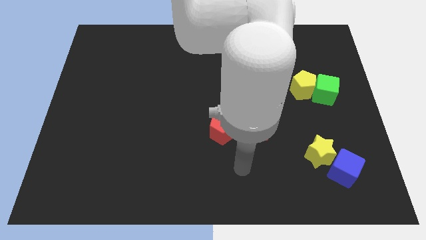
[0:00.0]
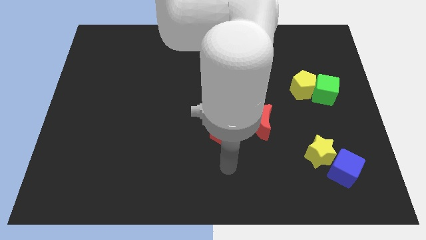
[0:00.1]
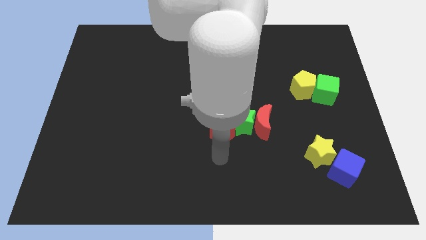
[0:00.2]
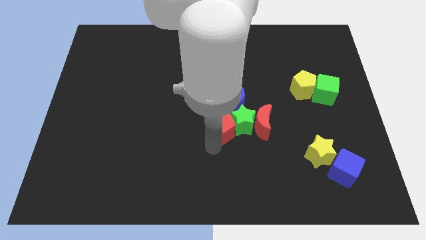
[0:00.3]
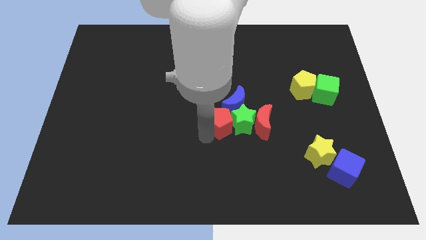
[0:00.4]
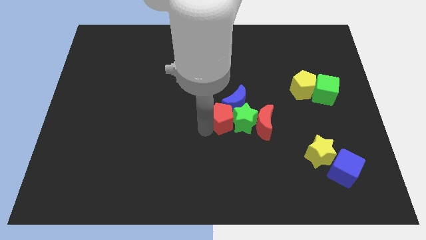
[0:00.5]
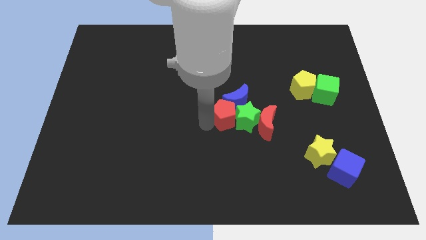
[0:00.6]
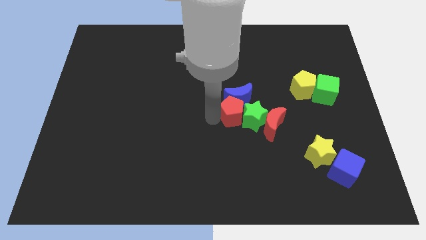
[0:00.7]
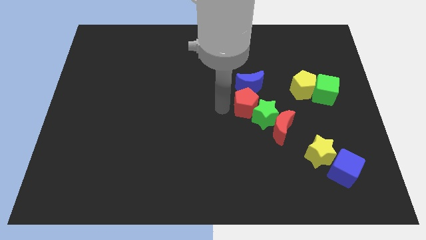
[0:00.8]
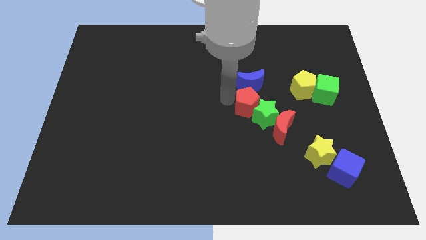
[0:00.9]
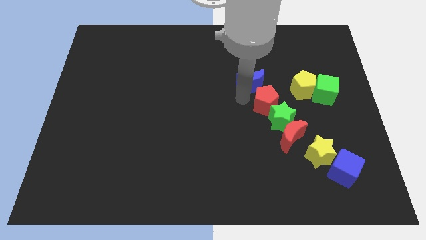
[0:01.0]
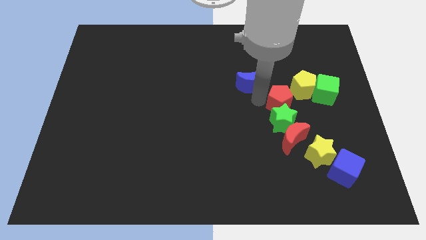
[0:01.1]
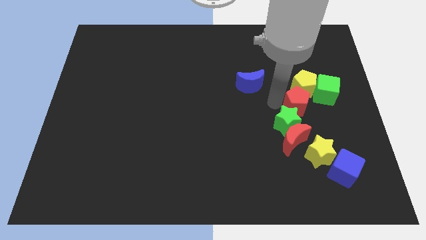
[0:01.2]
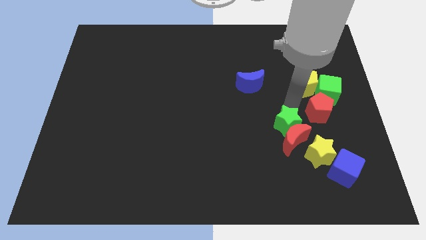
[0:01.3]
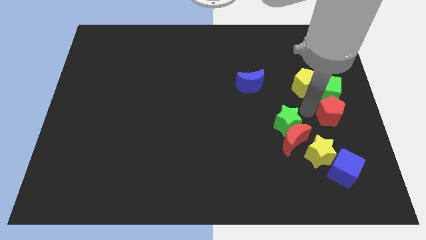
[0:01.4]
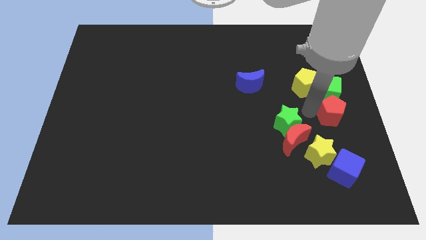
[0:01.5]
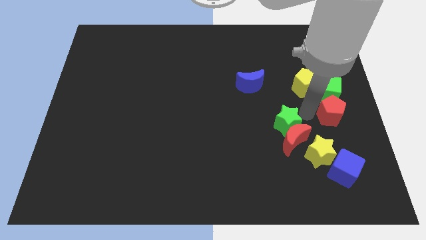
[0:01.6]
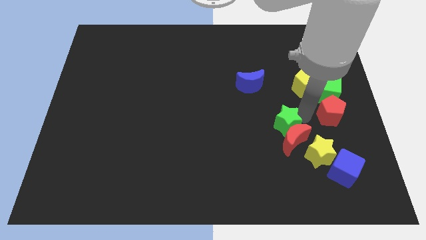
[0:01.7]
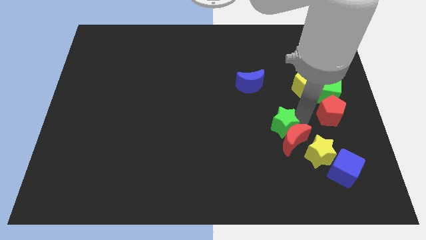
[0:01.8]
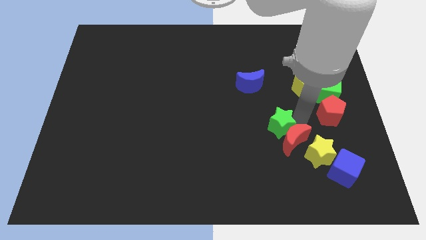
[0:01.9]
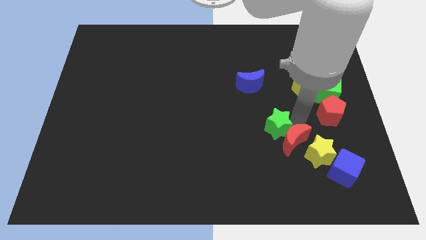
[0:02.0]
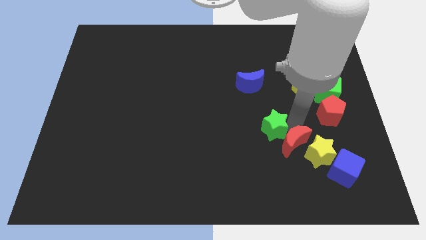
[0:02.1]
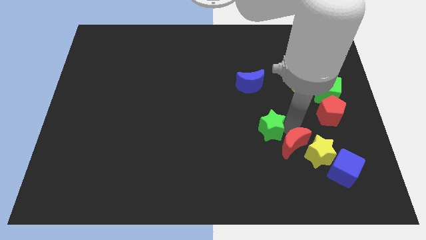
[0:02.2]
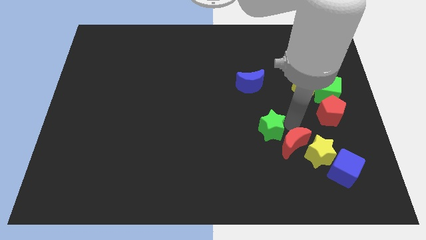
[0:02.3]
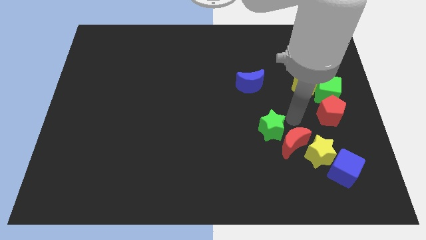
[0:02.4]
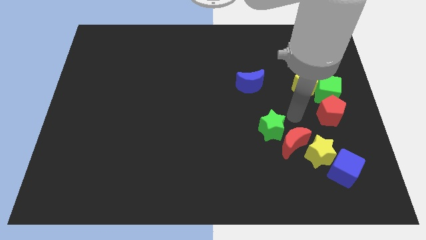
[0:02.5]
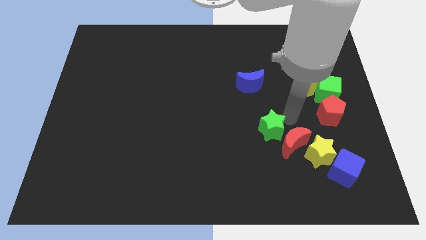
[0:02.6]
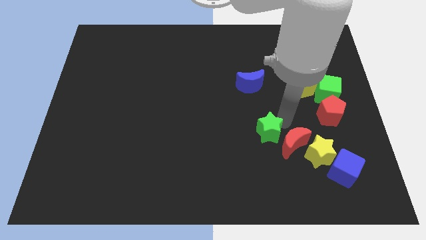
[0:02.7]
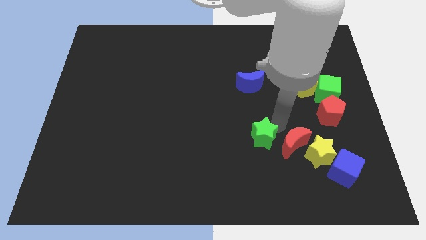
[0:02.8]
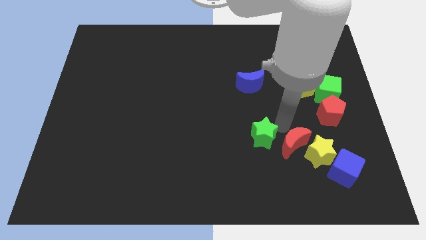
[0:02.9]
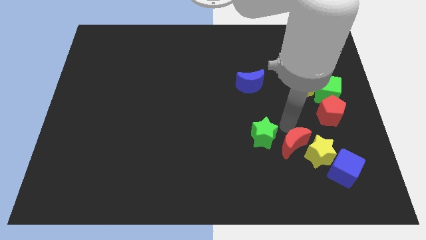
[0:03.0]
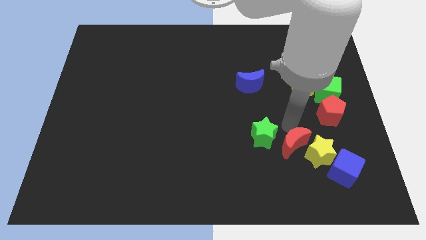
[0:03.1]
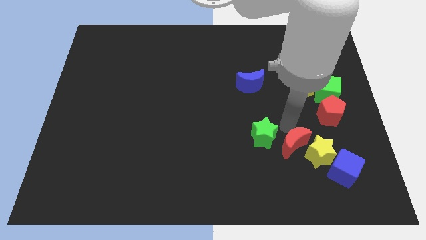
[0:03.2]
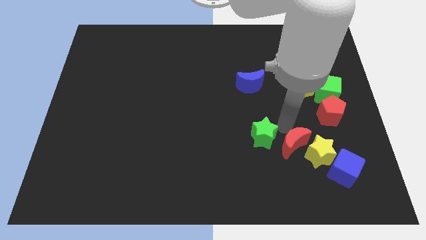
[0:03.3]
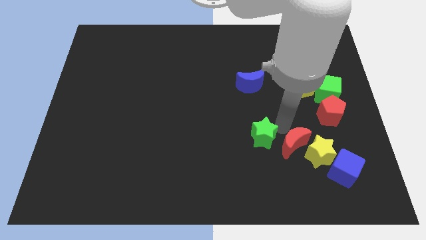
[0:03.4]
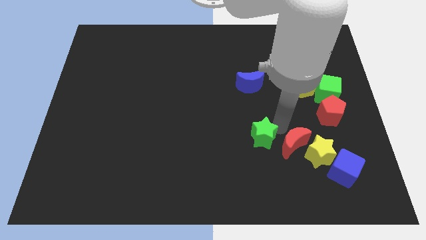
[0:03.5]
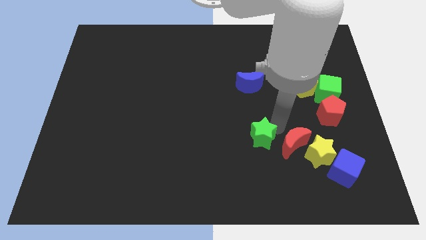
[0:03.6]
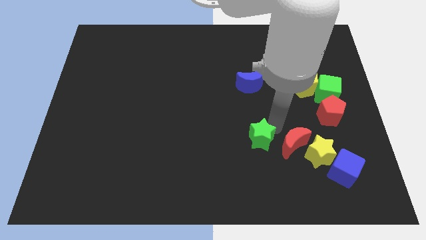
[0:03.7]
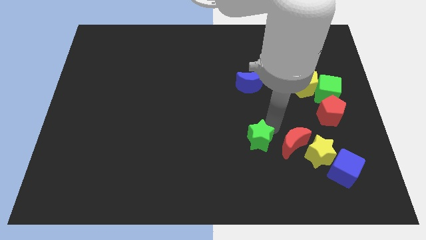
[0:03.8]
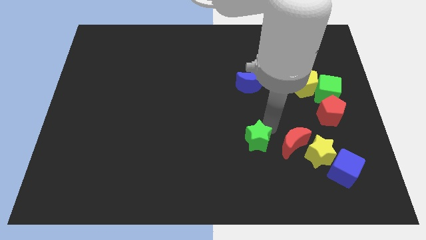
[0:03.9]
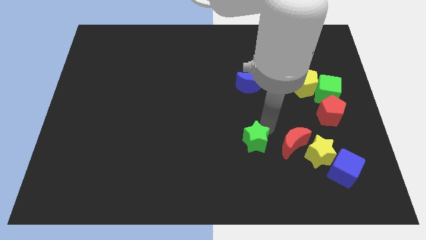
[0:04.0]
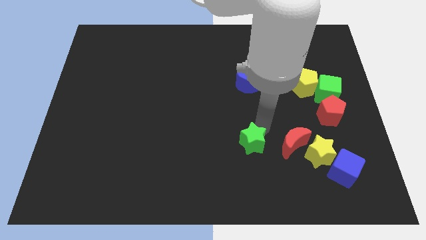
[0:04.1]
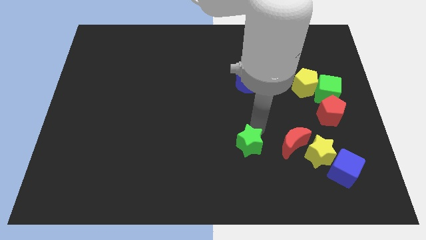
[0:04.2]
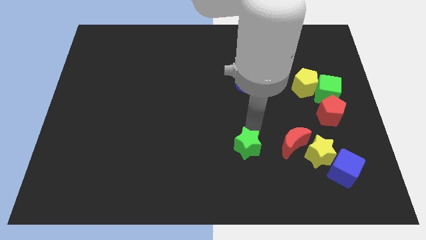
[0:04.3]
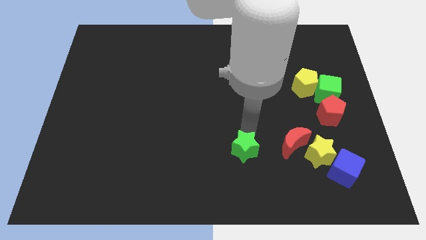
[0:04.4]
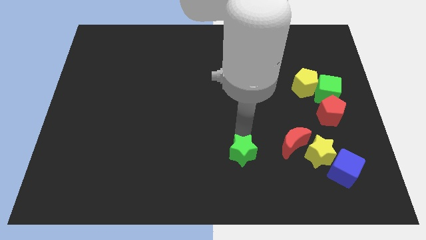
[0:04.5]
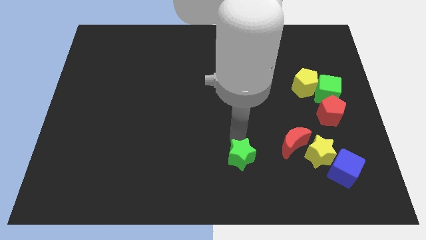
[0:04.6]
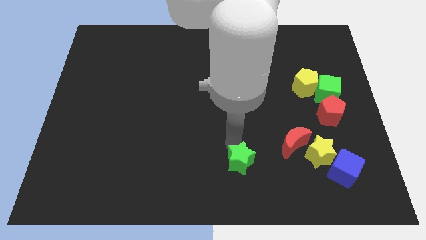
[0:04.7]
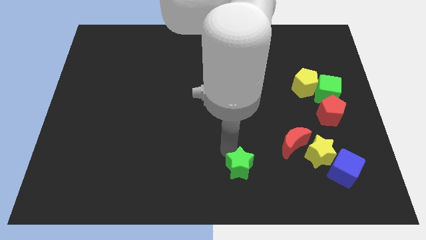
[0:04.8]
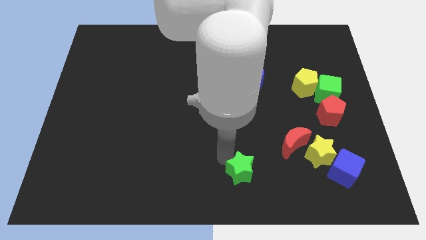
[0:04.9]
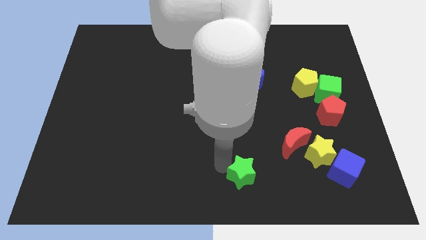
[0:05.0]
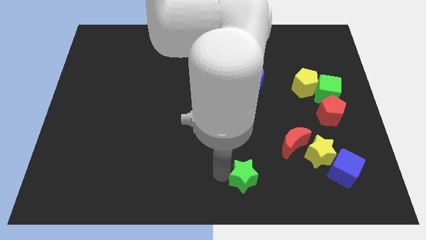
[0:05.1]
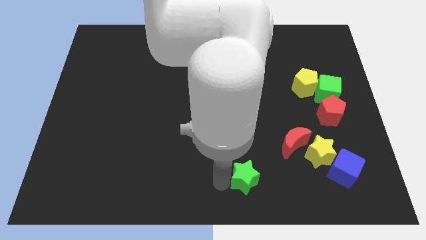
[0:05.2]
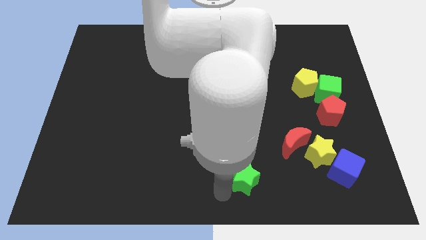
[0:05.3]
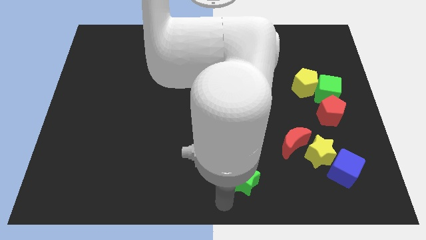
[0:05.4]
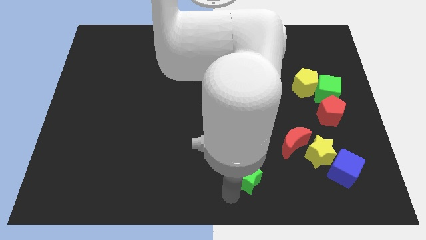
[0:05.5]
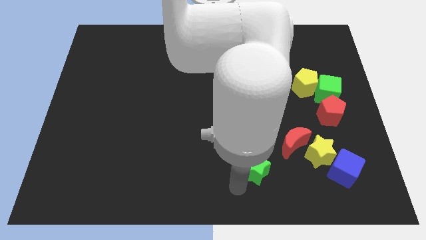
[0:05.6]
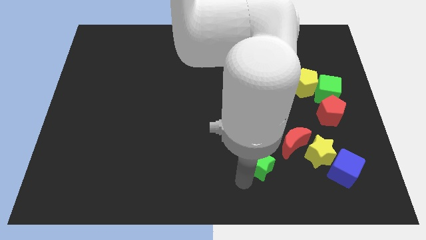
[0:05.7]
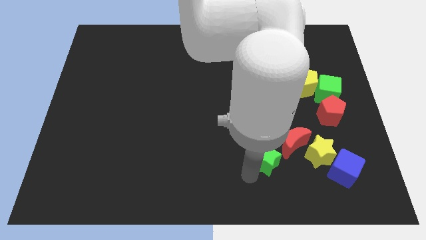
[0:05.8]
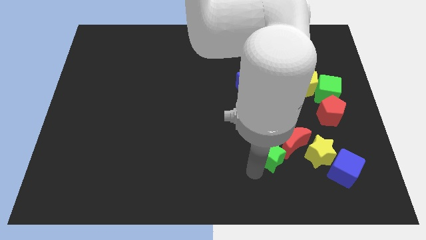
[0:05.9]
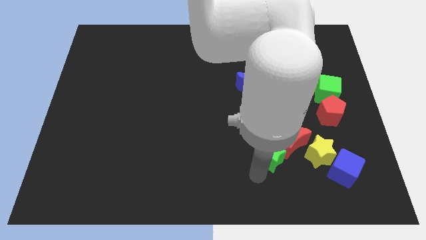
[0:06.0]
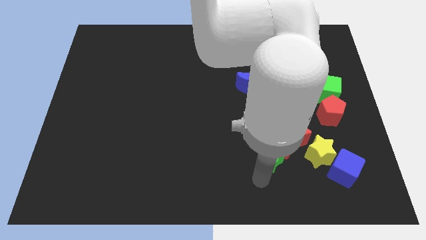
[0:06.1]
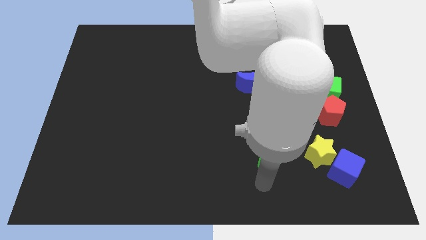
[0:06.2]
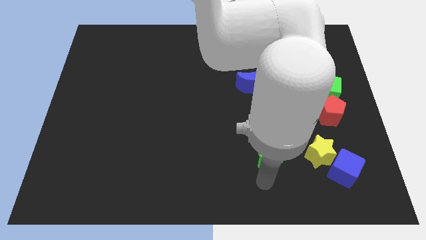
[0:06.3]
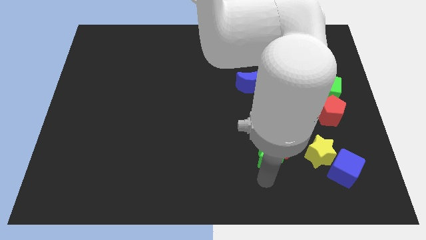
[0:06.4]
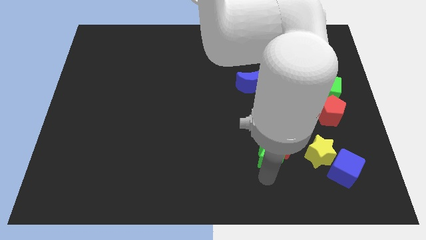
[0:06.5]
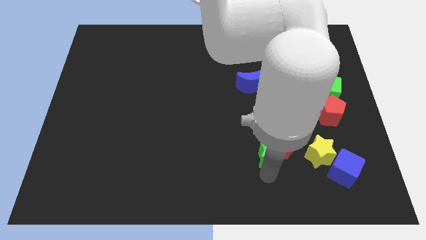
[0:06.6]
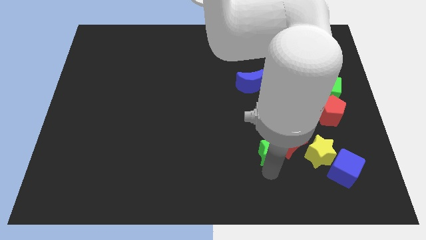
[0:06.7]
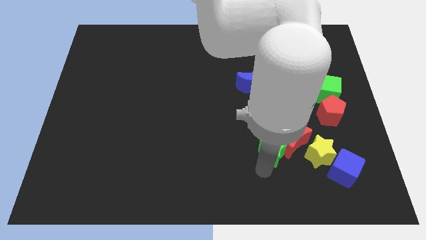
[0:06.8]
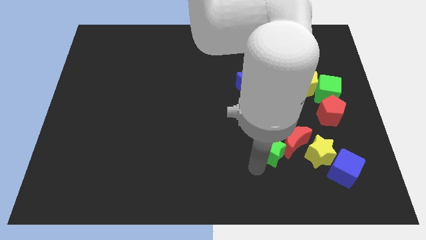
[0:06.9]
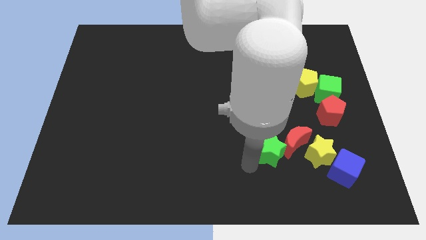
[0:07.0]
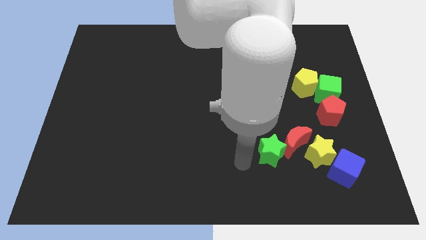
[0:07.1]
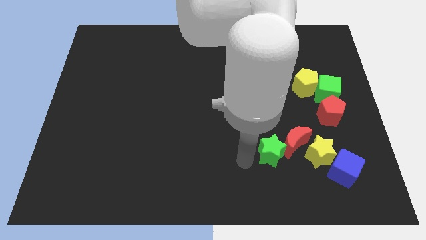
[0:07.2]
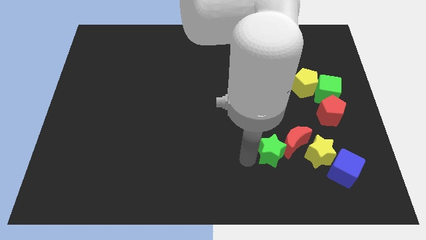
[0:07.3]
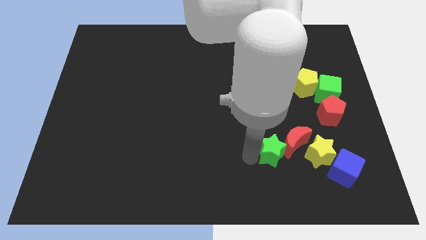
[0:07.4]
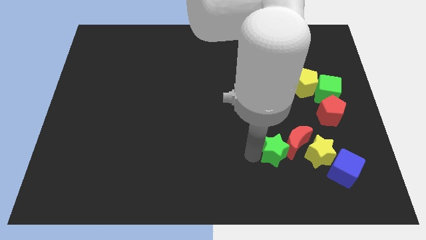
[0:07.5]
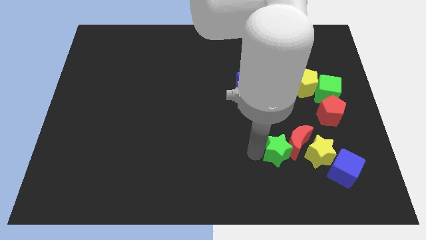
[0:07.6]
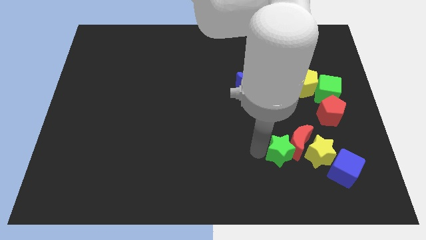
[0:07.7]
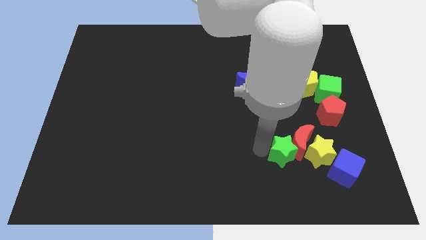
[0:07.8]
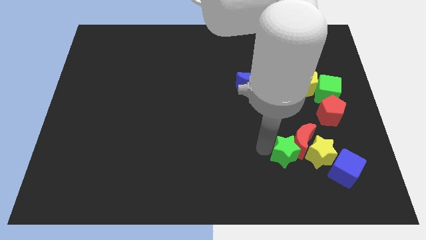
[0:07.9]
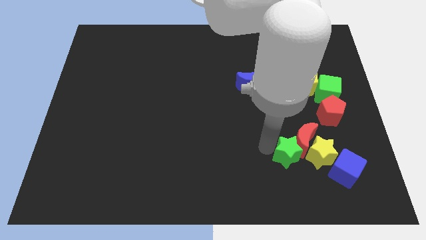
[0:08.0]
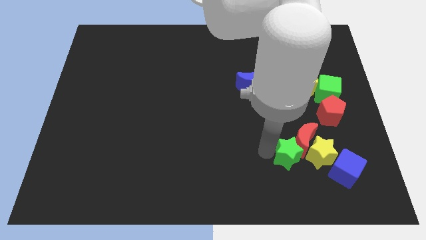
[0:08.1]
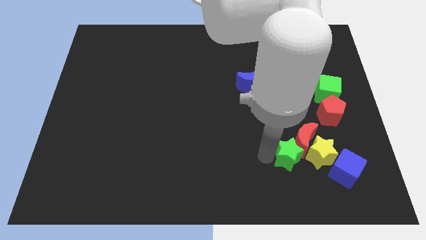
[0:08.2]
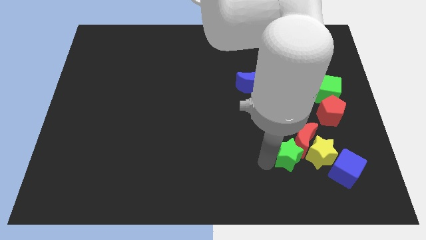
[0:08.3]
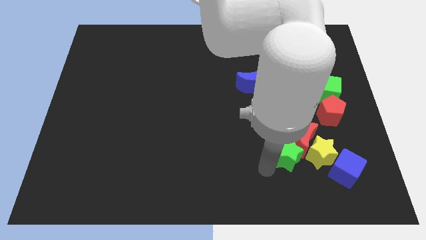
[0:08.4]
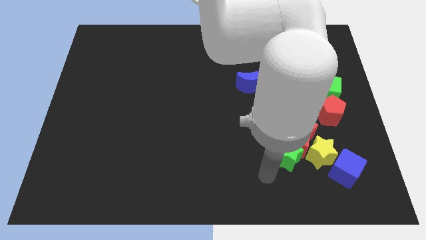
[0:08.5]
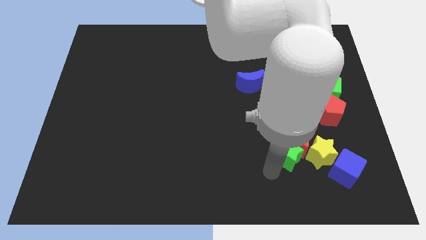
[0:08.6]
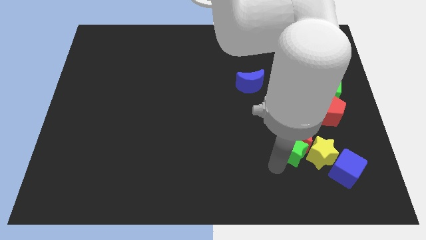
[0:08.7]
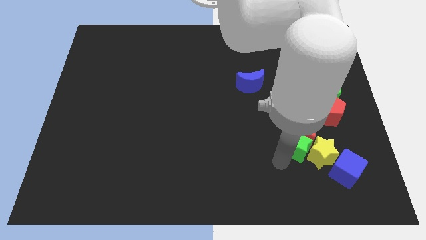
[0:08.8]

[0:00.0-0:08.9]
put the green star to the top left side of the blue cube
